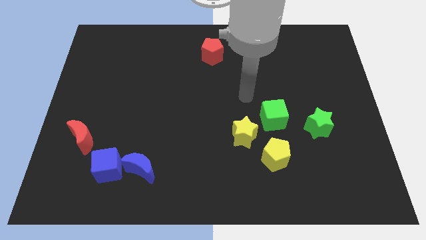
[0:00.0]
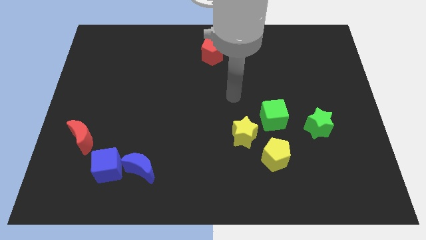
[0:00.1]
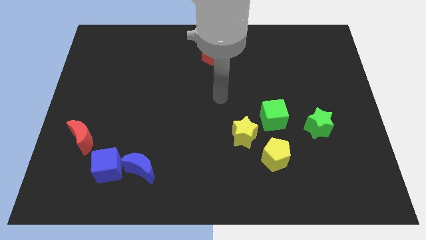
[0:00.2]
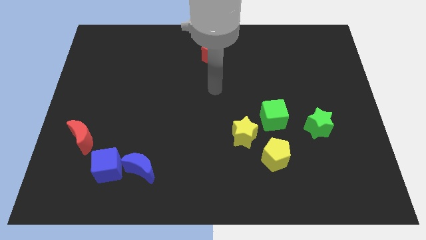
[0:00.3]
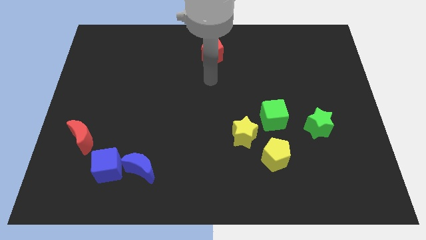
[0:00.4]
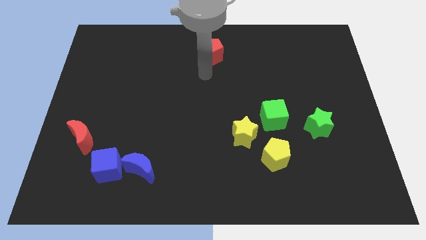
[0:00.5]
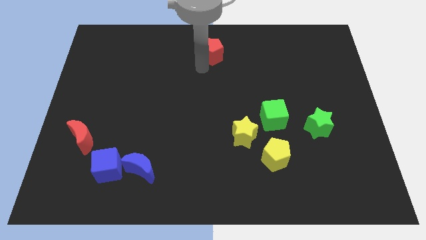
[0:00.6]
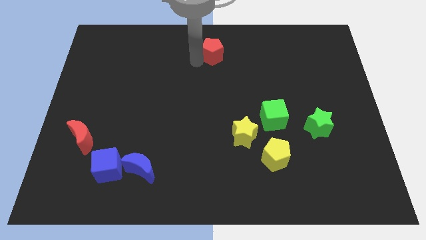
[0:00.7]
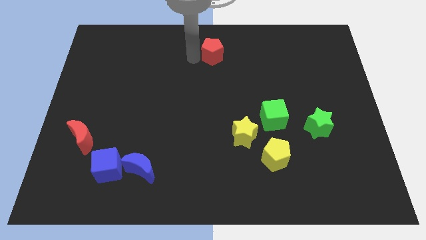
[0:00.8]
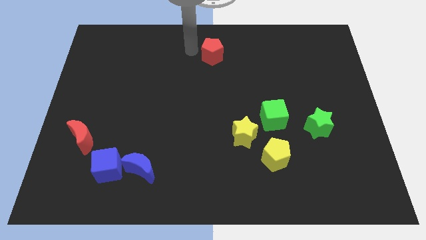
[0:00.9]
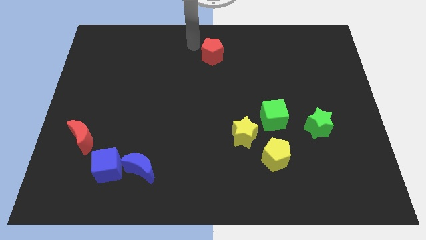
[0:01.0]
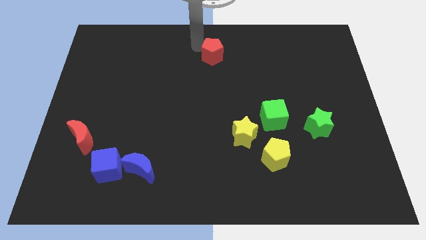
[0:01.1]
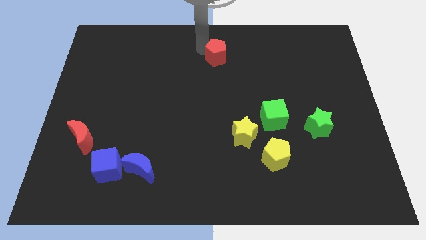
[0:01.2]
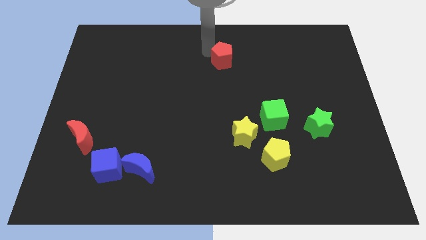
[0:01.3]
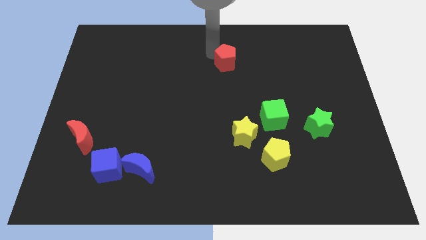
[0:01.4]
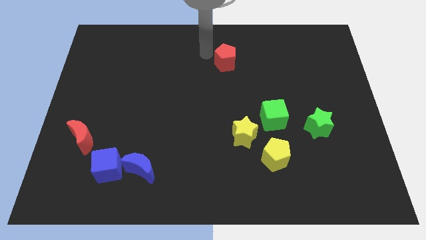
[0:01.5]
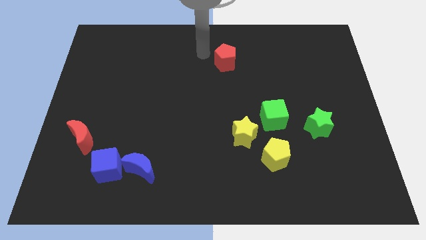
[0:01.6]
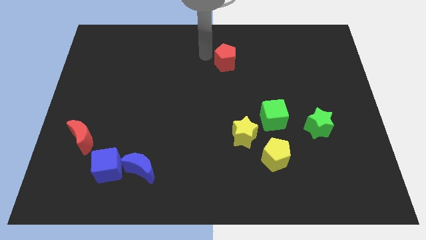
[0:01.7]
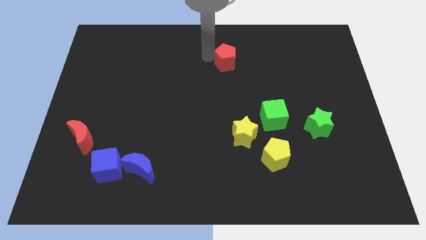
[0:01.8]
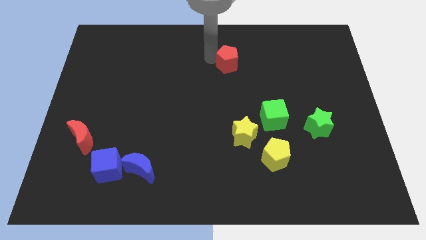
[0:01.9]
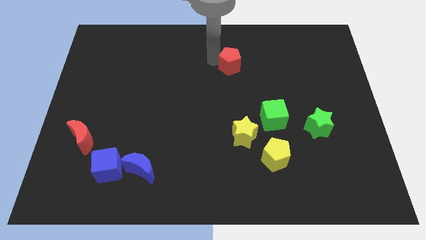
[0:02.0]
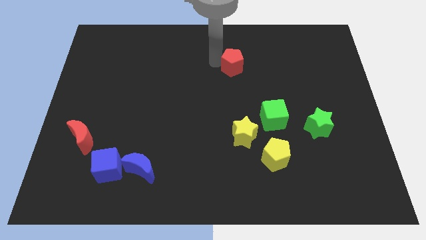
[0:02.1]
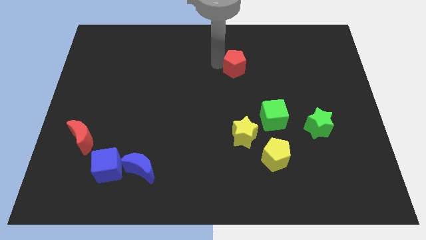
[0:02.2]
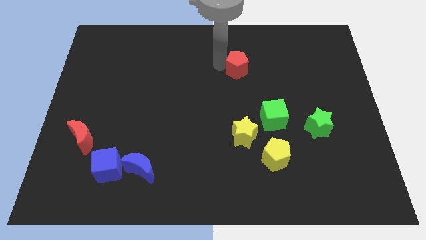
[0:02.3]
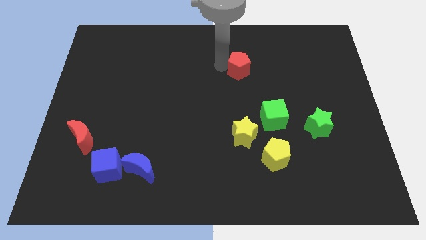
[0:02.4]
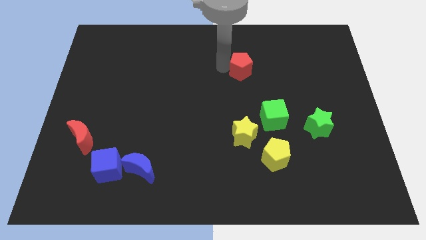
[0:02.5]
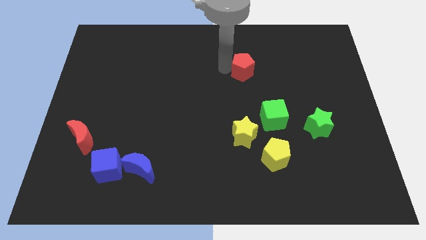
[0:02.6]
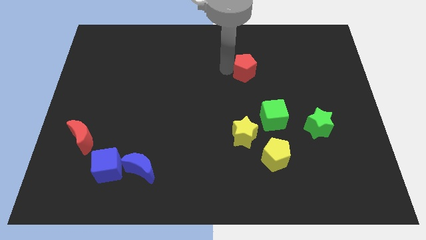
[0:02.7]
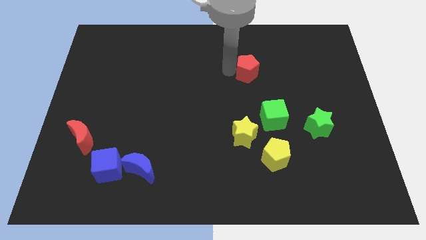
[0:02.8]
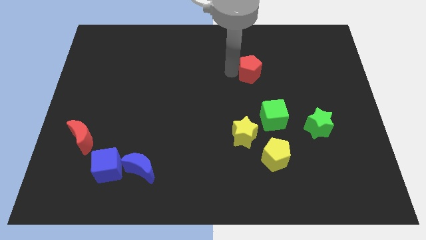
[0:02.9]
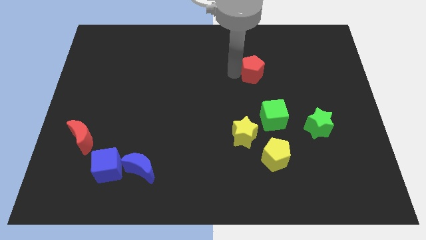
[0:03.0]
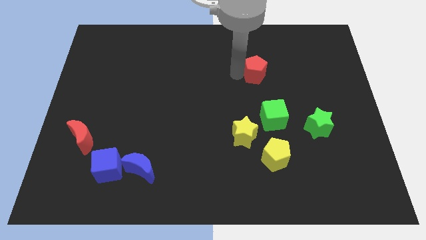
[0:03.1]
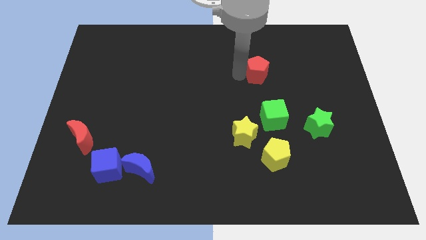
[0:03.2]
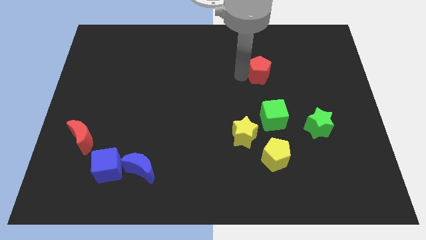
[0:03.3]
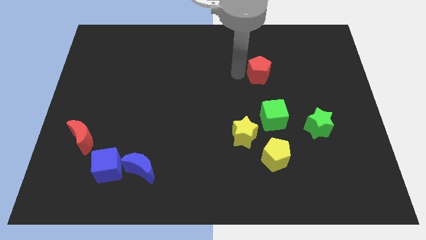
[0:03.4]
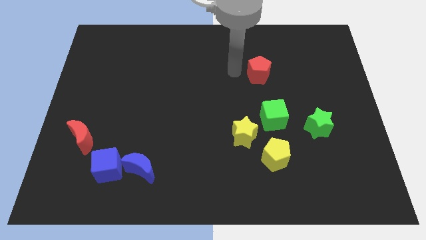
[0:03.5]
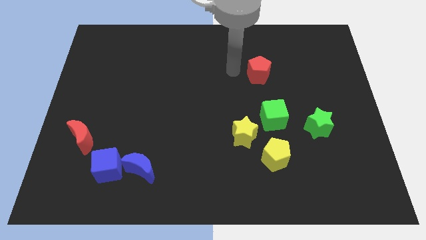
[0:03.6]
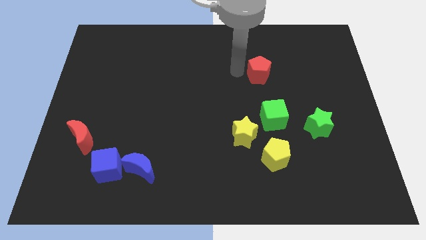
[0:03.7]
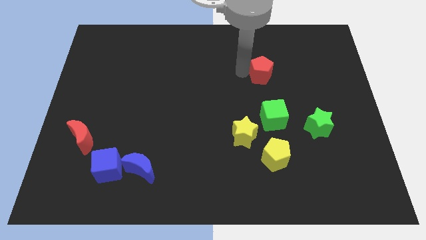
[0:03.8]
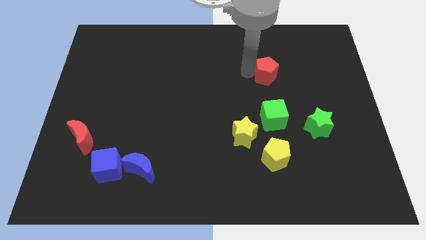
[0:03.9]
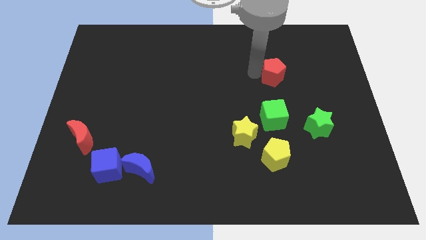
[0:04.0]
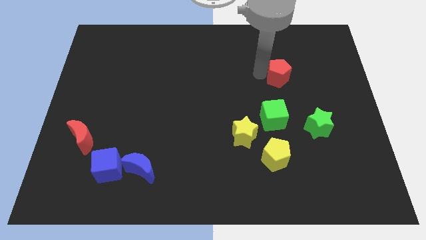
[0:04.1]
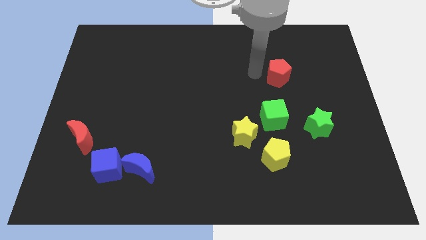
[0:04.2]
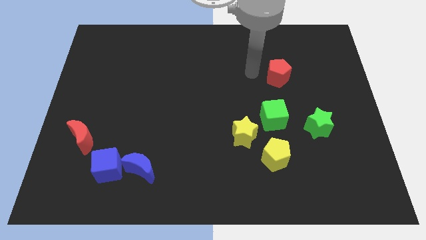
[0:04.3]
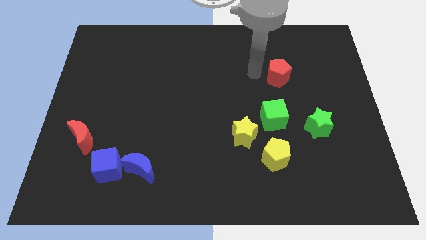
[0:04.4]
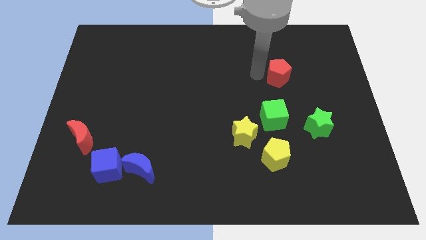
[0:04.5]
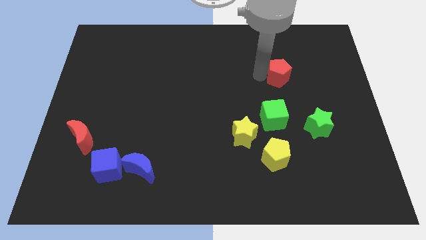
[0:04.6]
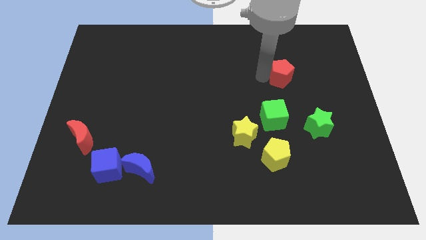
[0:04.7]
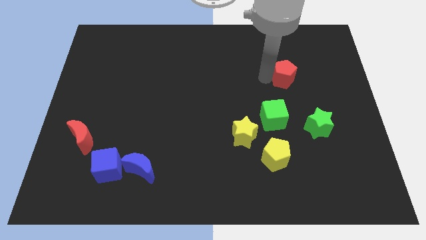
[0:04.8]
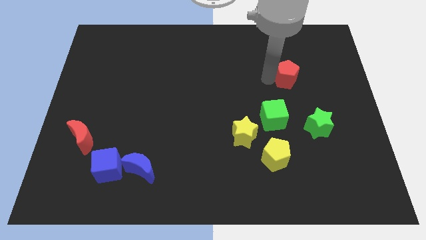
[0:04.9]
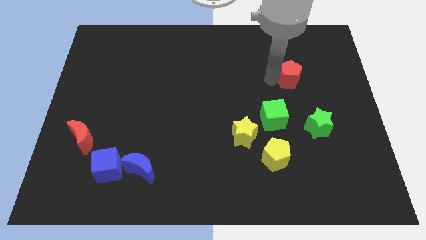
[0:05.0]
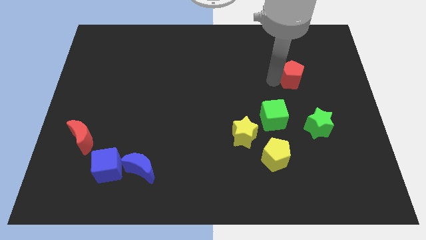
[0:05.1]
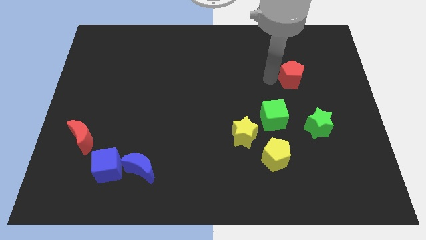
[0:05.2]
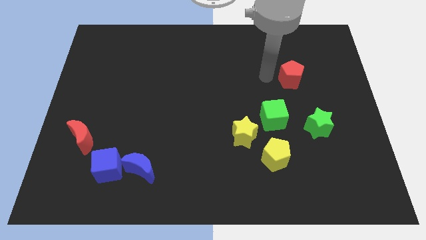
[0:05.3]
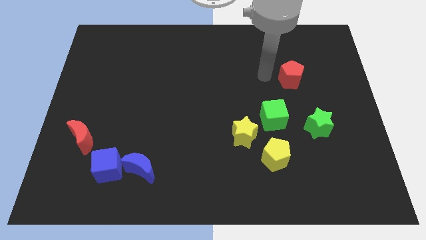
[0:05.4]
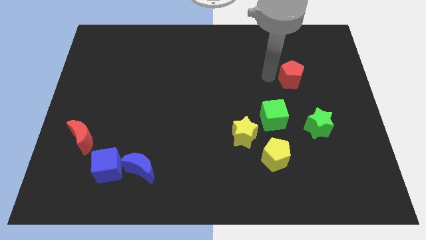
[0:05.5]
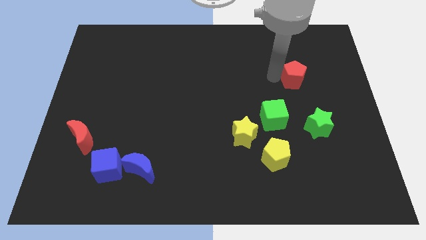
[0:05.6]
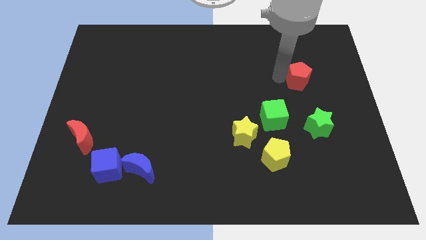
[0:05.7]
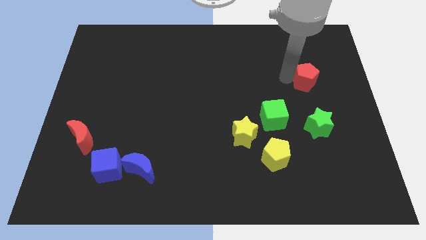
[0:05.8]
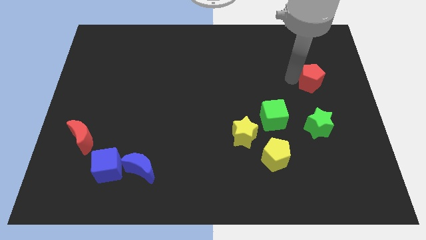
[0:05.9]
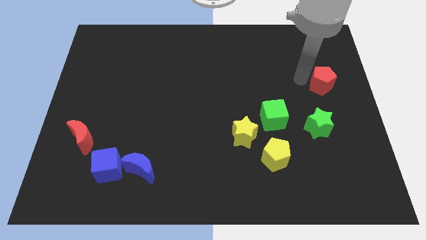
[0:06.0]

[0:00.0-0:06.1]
put the red pentagon to the center right
